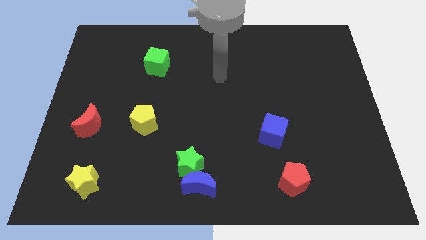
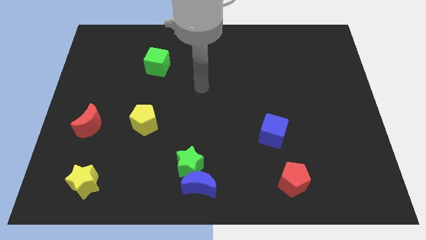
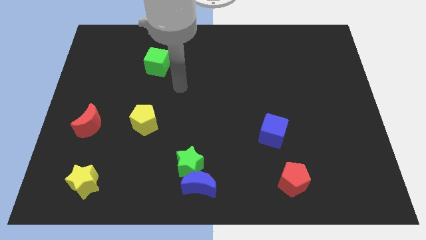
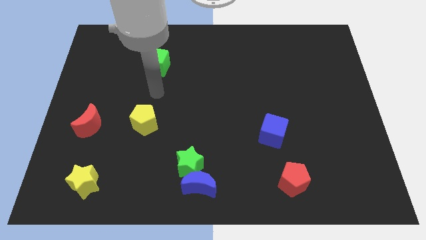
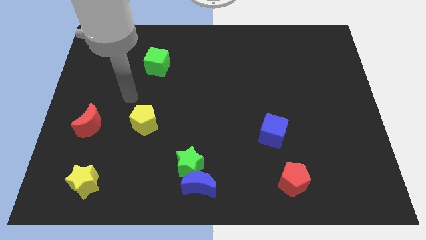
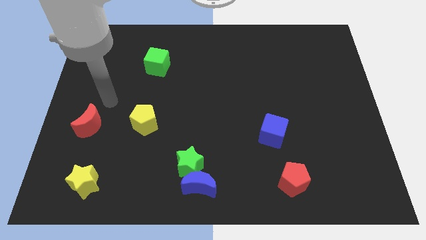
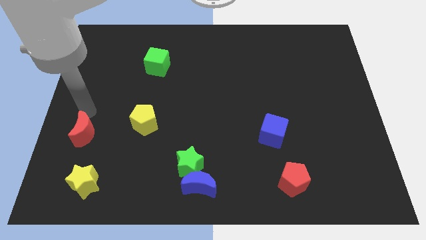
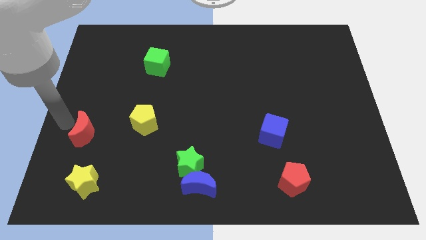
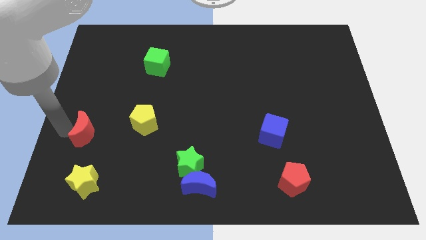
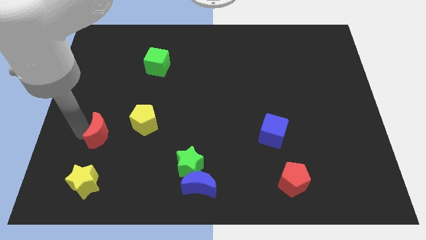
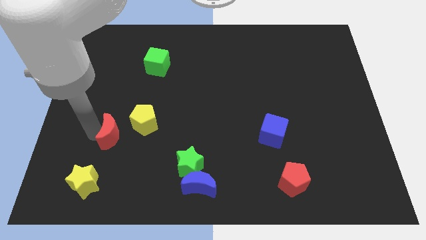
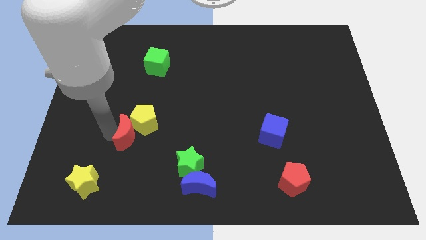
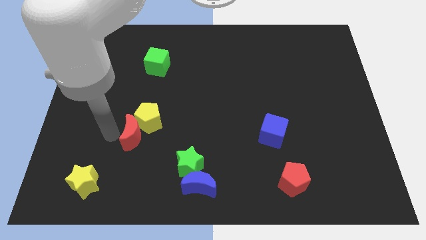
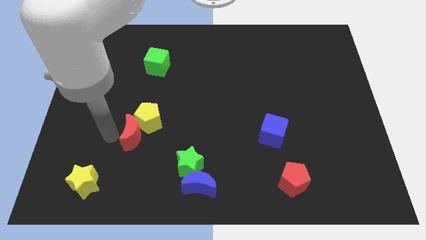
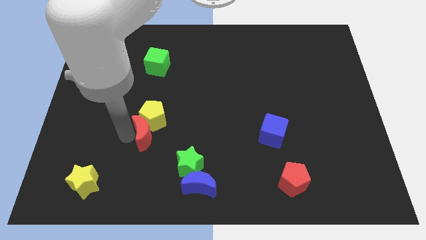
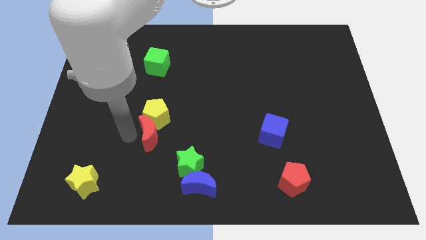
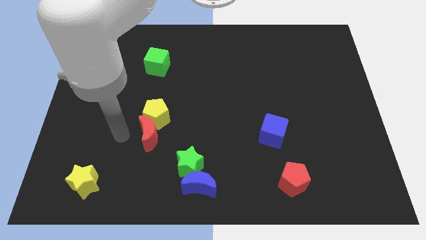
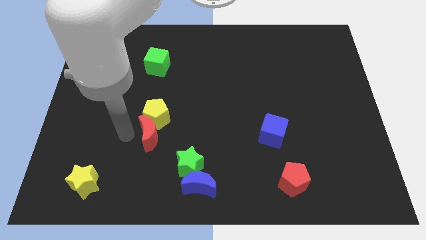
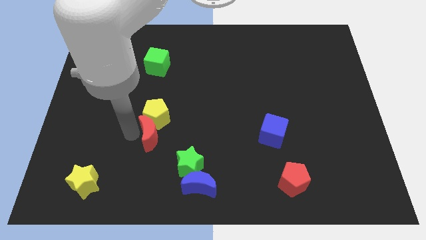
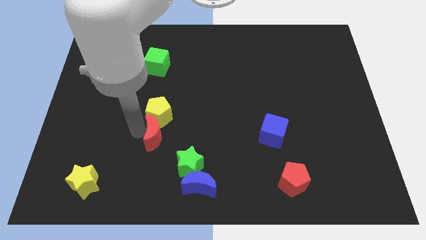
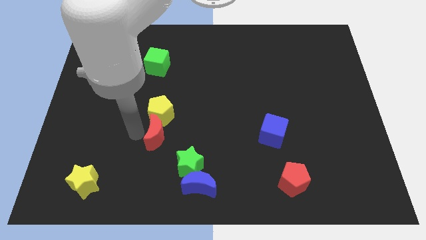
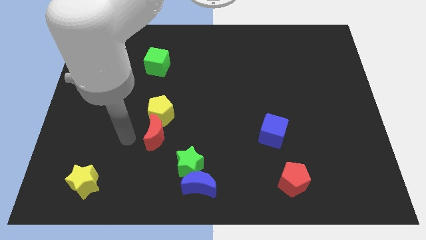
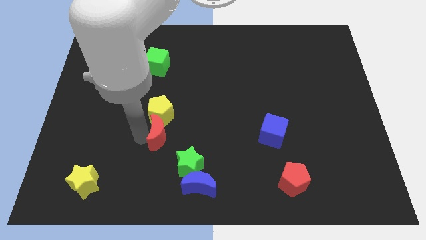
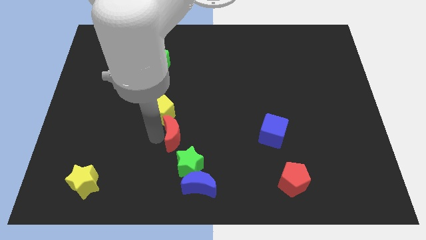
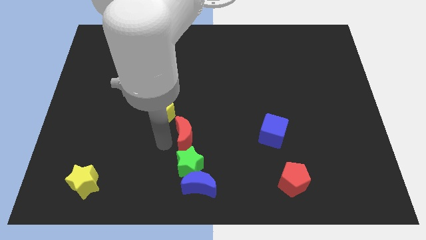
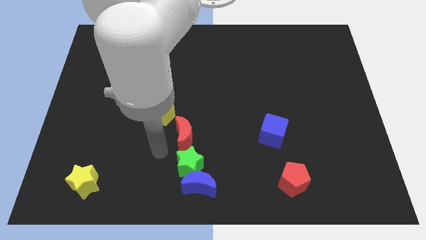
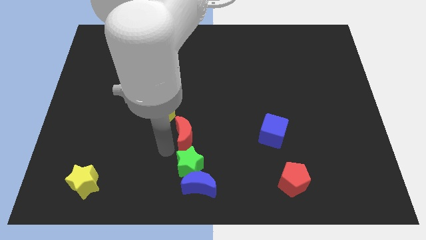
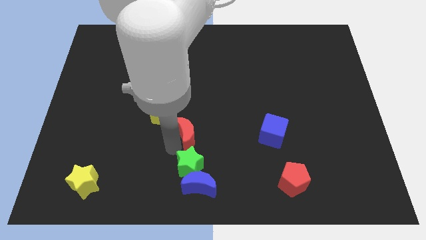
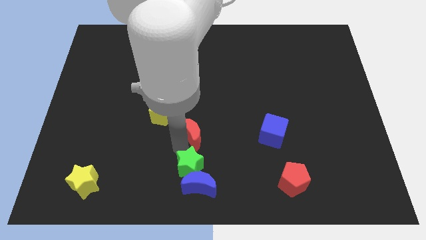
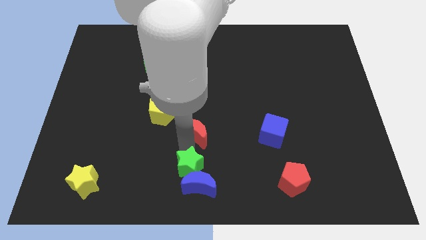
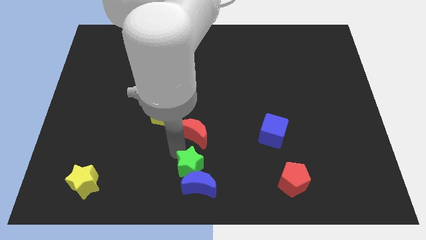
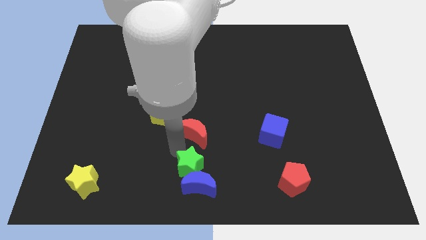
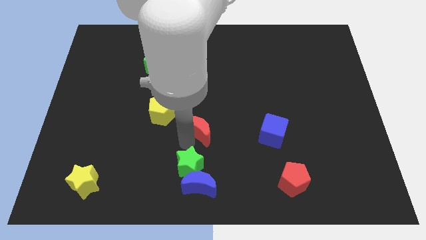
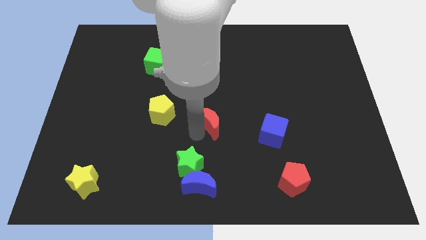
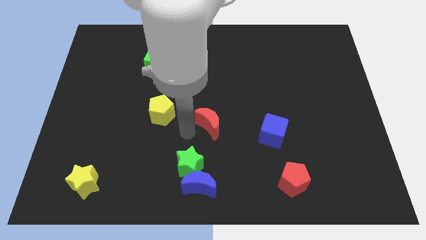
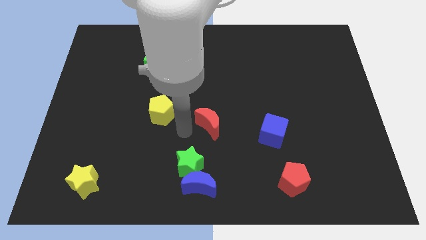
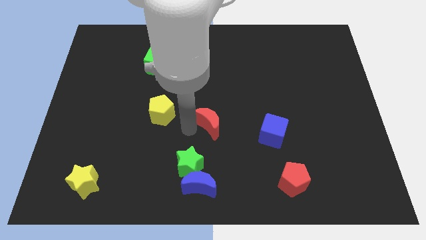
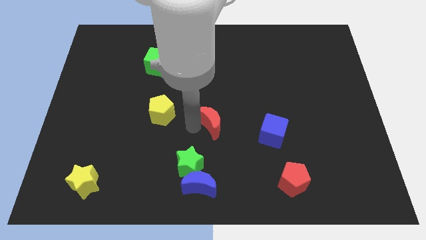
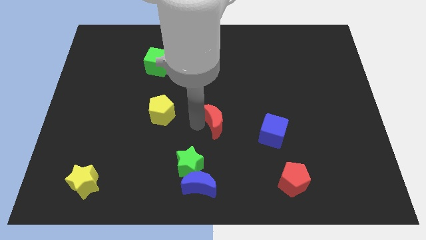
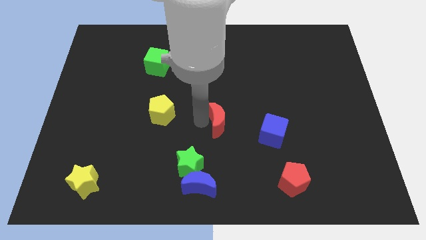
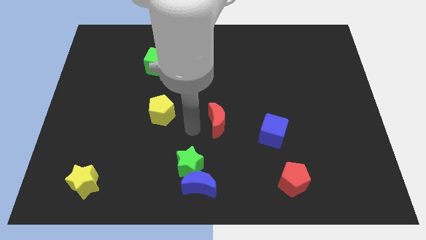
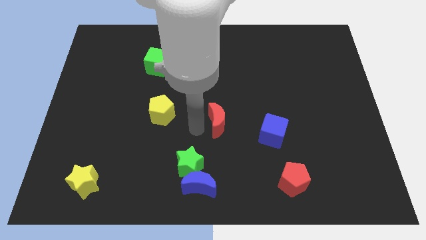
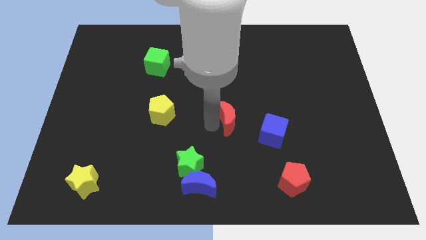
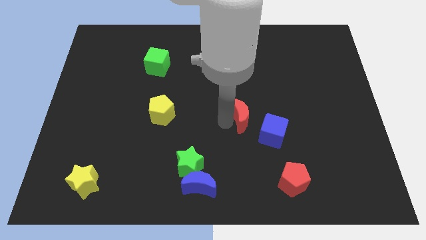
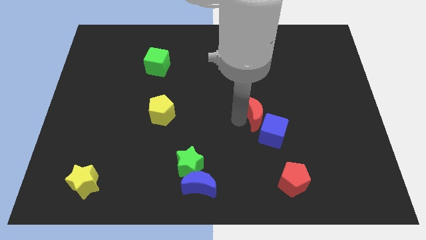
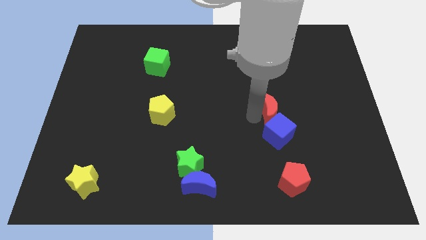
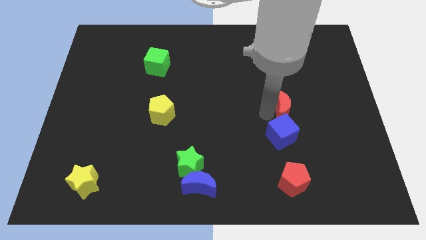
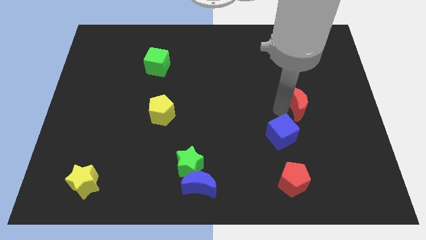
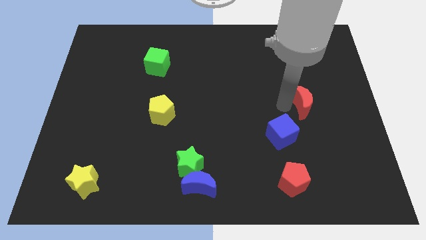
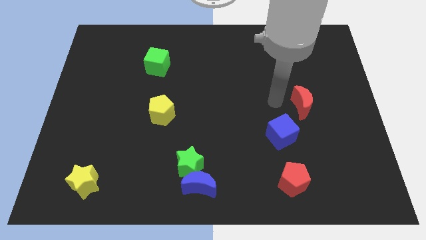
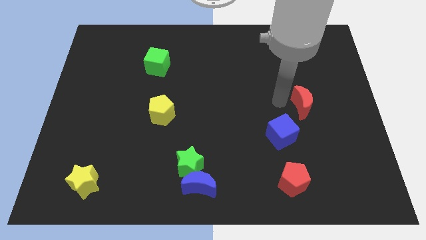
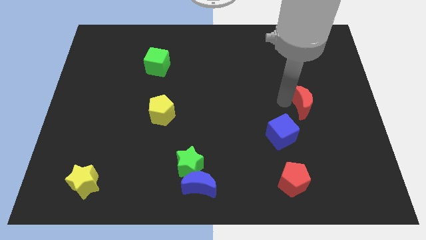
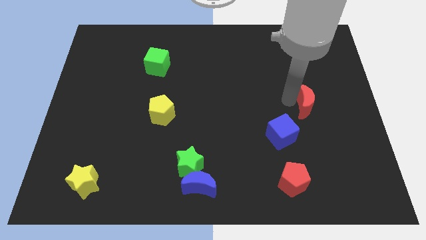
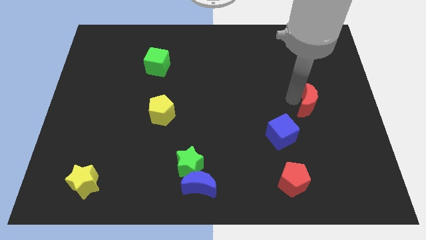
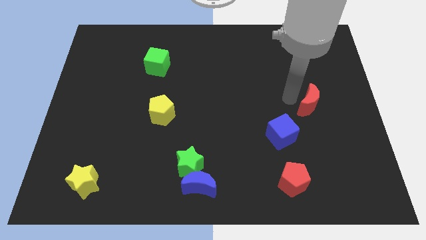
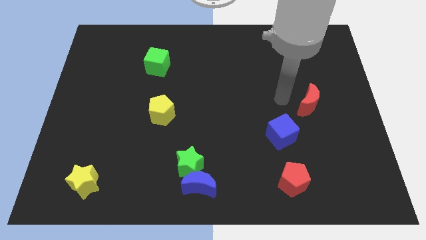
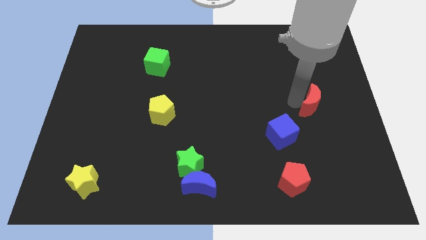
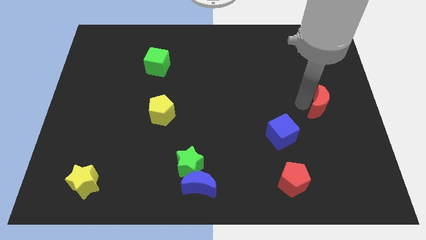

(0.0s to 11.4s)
push the red moon to the right side
